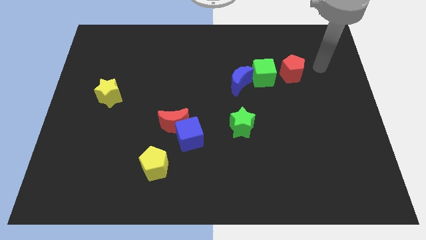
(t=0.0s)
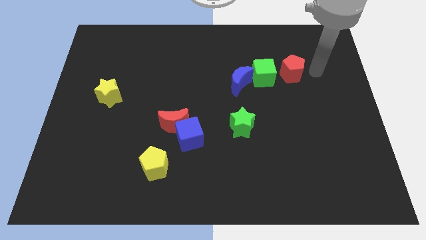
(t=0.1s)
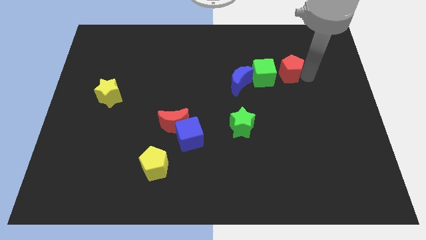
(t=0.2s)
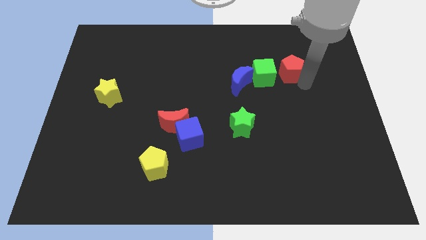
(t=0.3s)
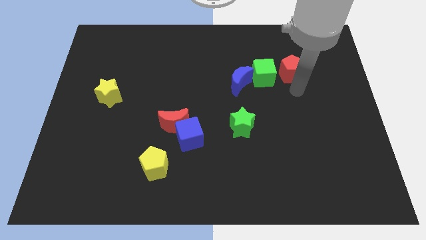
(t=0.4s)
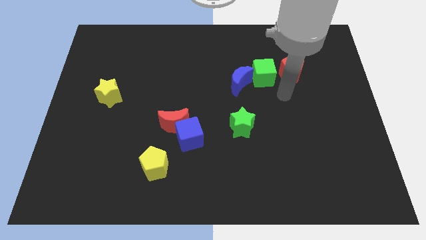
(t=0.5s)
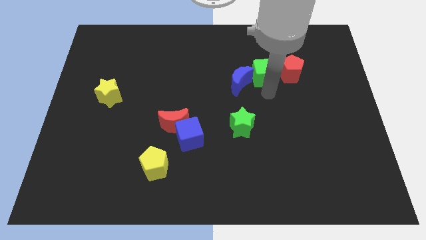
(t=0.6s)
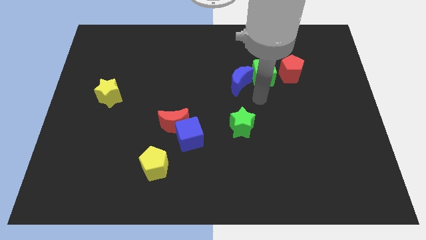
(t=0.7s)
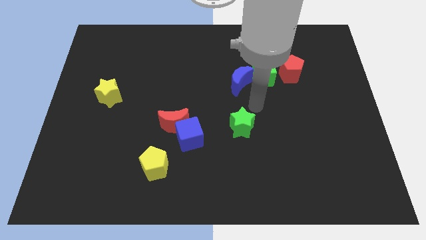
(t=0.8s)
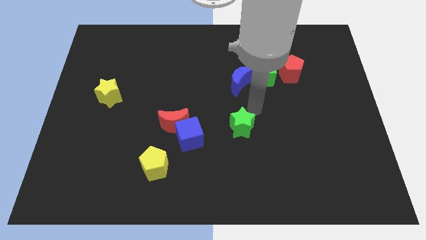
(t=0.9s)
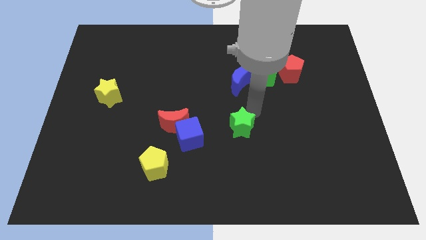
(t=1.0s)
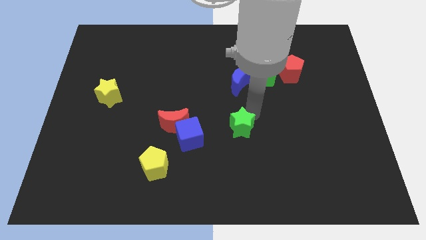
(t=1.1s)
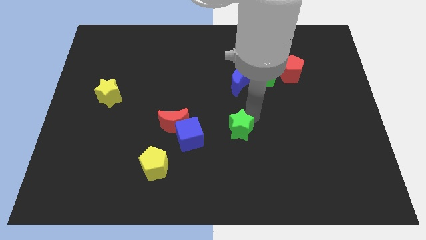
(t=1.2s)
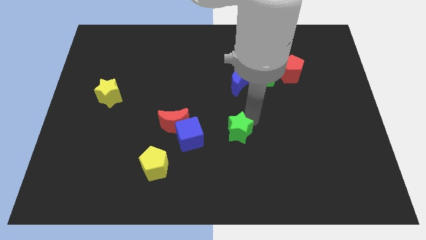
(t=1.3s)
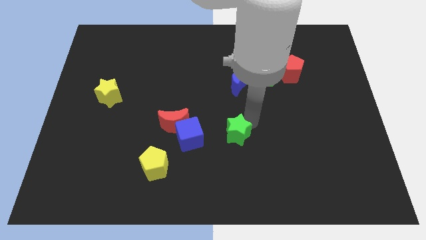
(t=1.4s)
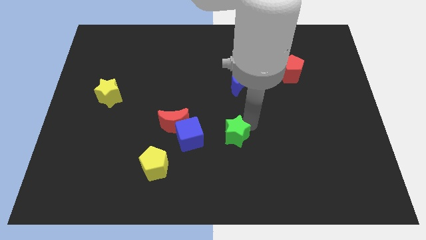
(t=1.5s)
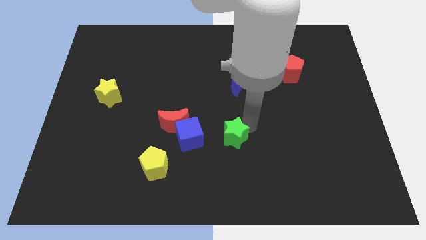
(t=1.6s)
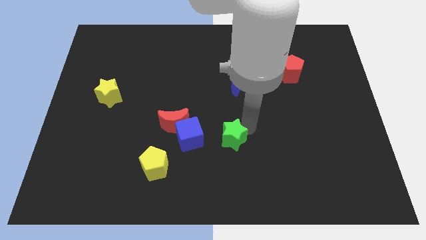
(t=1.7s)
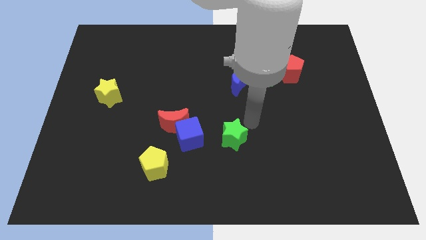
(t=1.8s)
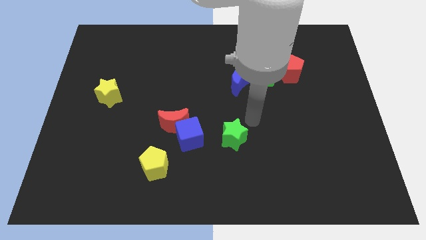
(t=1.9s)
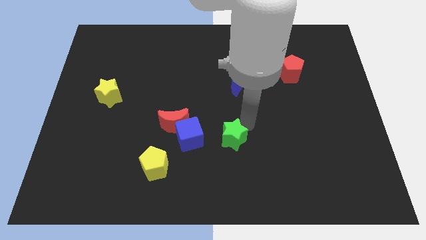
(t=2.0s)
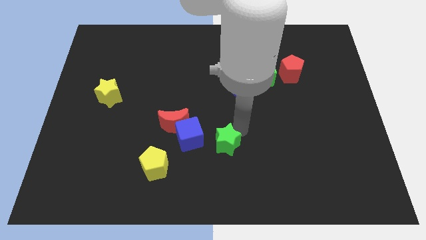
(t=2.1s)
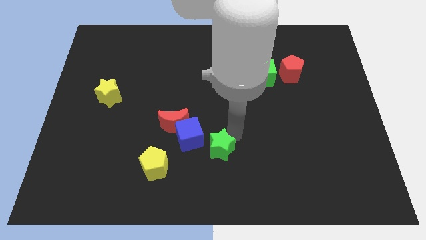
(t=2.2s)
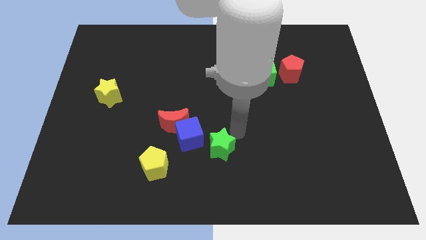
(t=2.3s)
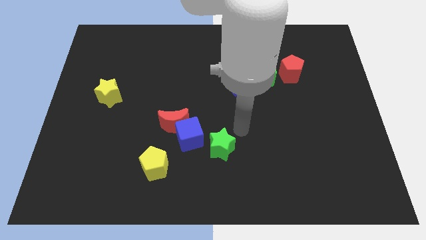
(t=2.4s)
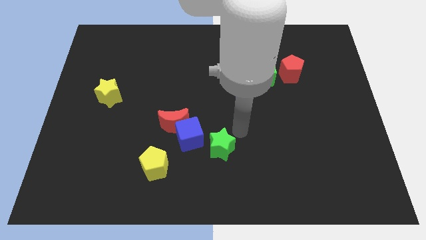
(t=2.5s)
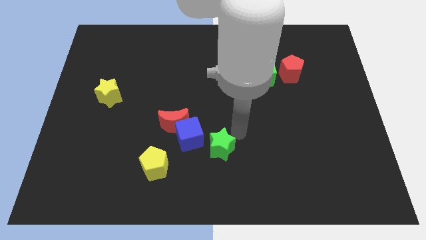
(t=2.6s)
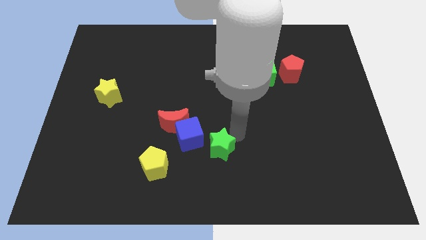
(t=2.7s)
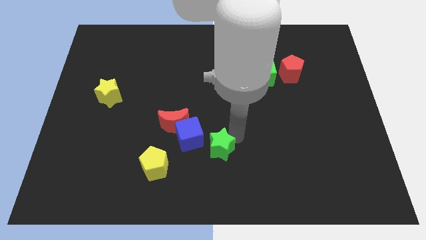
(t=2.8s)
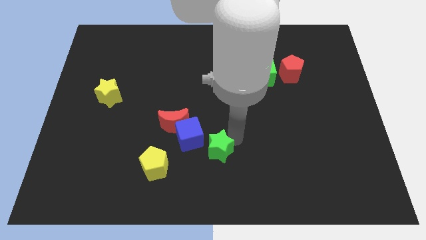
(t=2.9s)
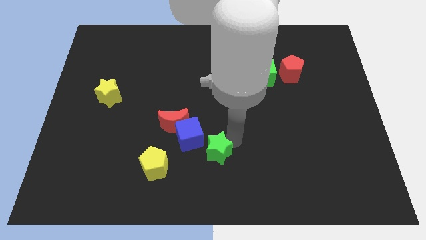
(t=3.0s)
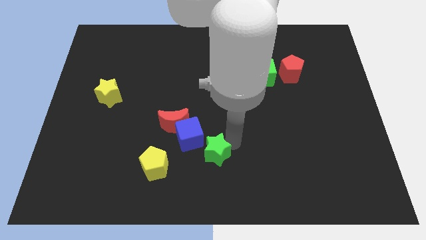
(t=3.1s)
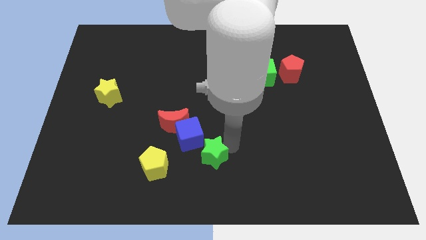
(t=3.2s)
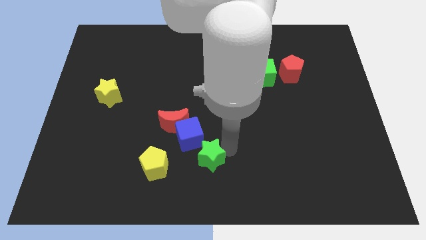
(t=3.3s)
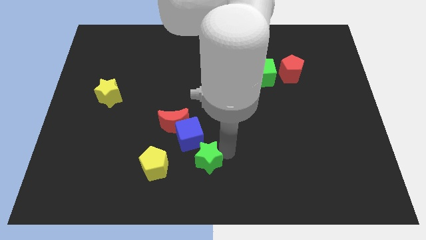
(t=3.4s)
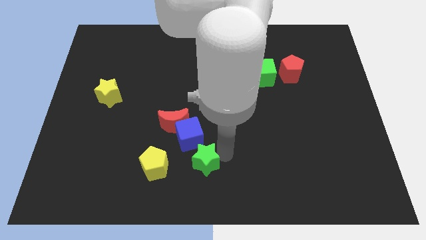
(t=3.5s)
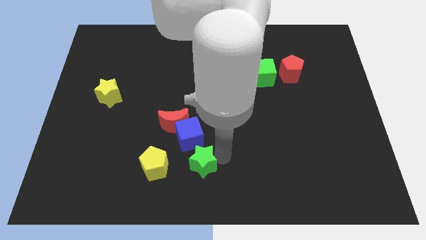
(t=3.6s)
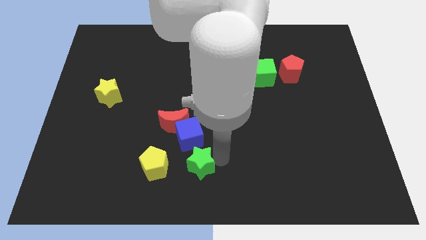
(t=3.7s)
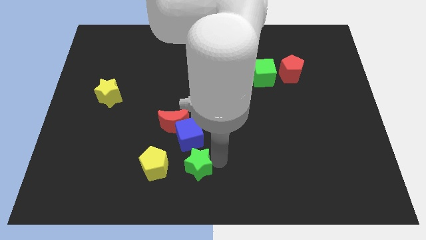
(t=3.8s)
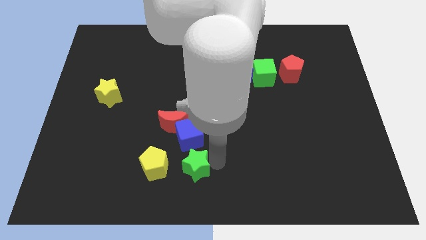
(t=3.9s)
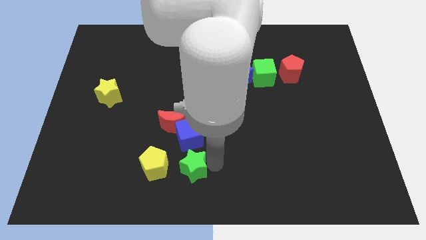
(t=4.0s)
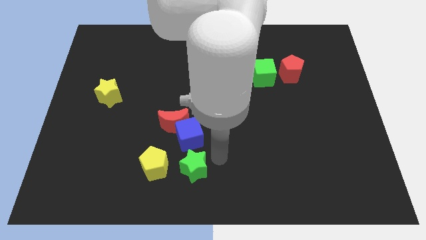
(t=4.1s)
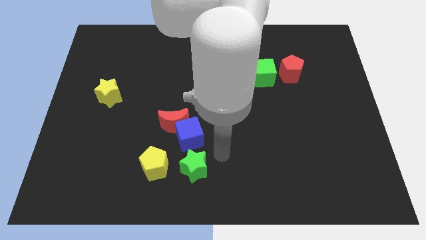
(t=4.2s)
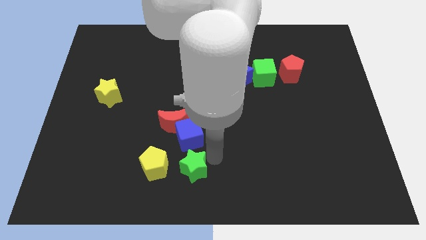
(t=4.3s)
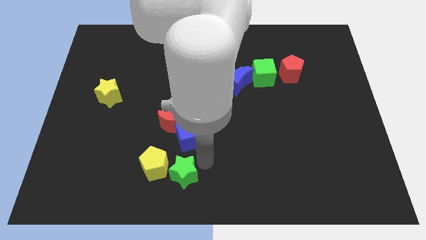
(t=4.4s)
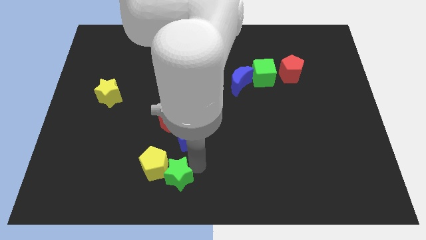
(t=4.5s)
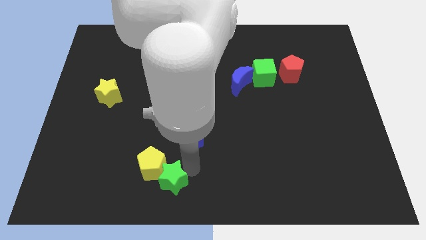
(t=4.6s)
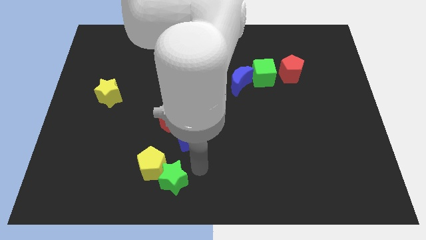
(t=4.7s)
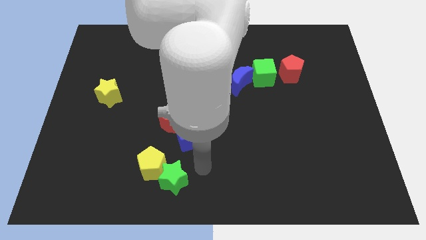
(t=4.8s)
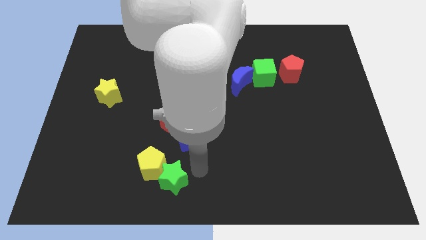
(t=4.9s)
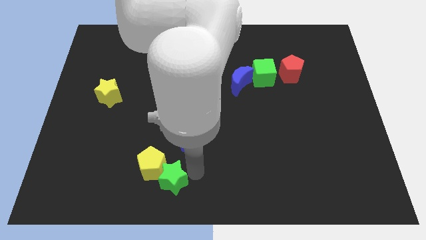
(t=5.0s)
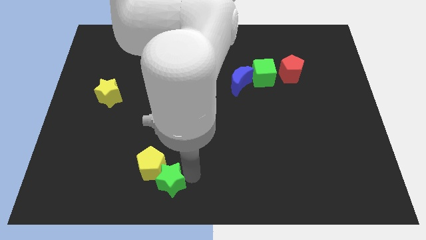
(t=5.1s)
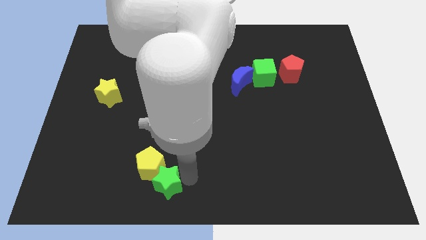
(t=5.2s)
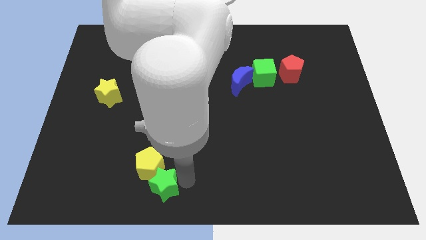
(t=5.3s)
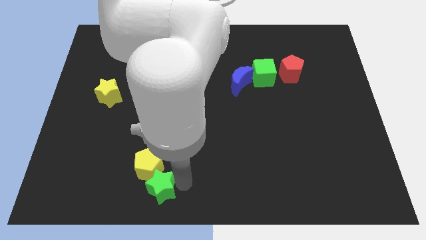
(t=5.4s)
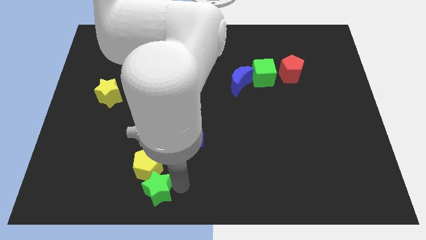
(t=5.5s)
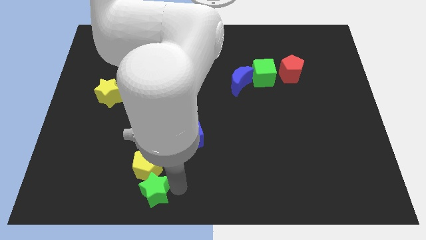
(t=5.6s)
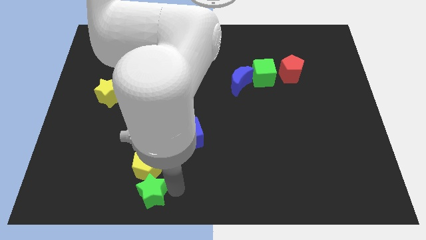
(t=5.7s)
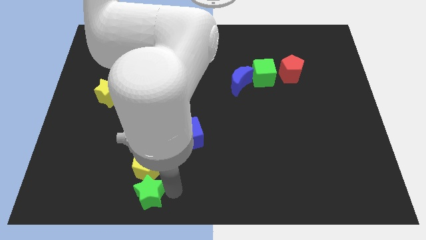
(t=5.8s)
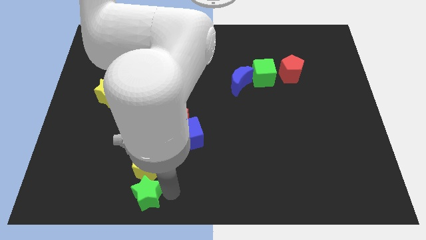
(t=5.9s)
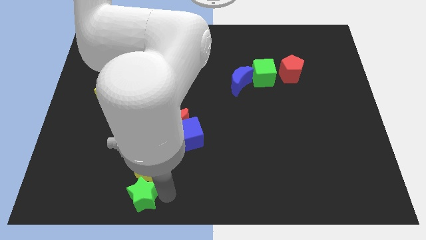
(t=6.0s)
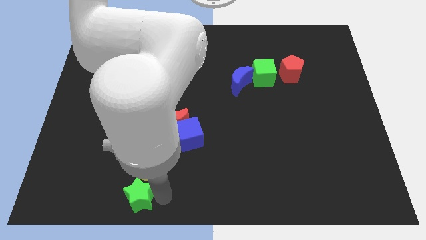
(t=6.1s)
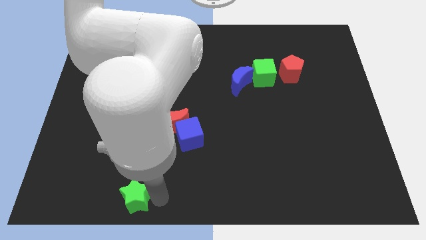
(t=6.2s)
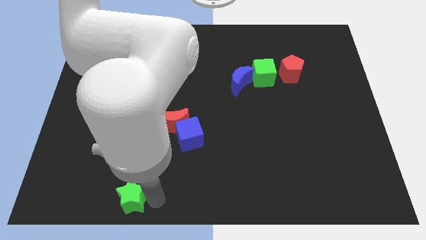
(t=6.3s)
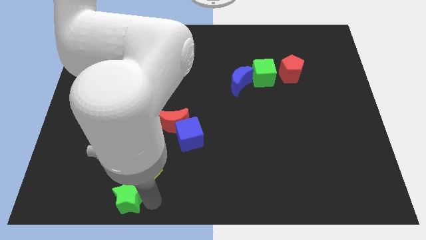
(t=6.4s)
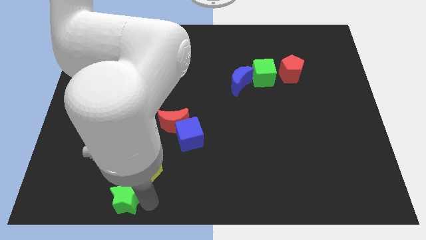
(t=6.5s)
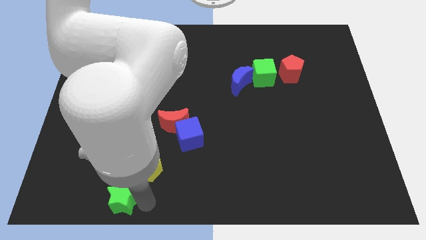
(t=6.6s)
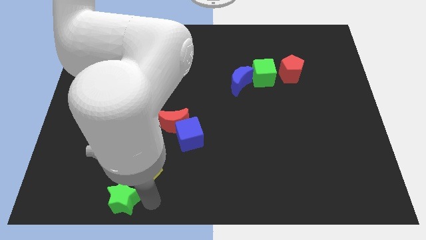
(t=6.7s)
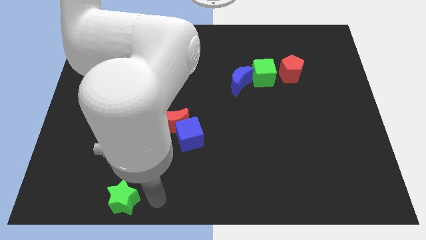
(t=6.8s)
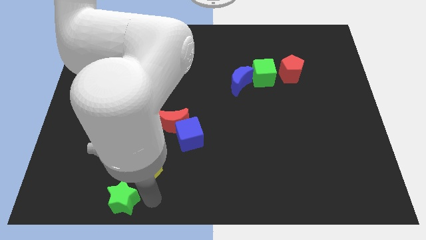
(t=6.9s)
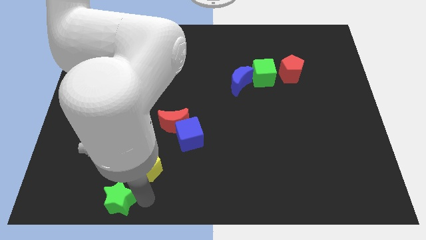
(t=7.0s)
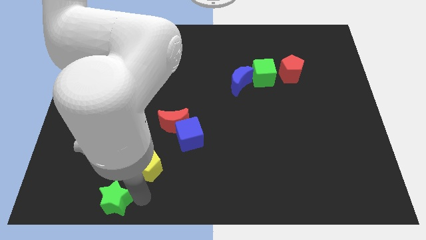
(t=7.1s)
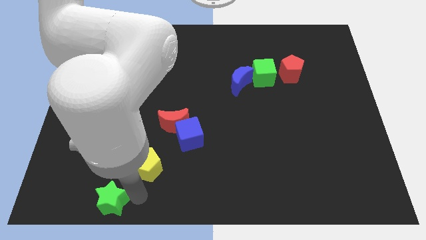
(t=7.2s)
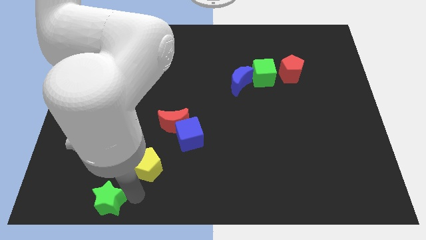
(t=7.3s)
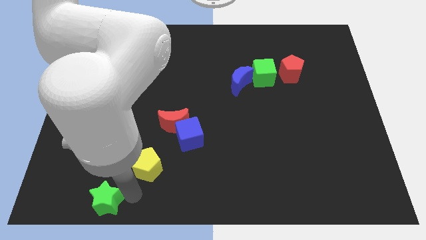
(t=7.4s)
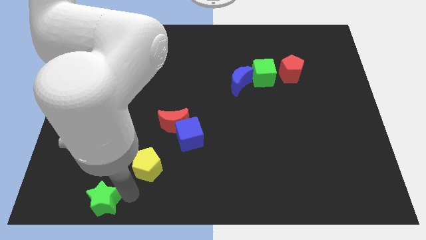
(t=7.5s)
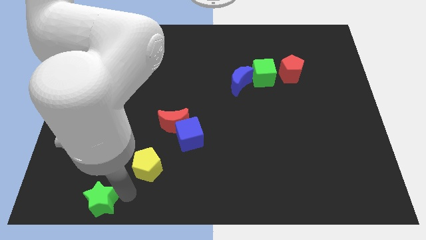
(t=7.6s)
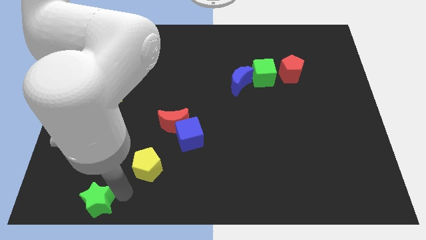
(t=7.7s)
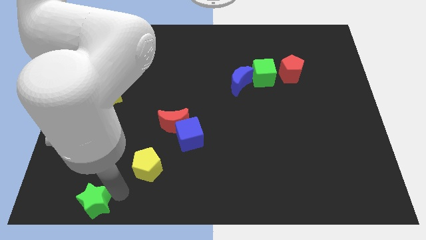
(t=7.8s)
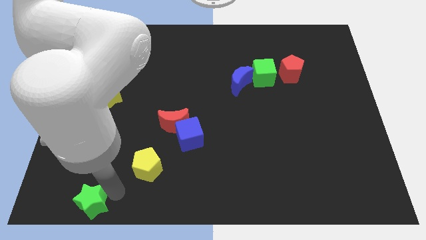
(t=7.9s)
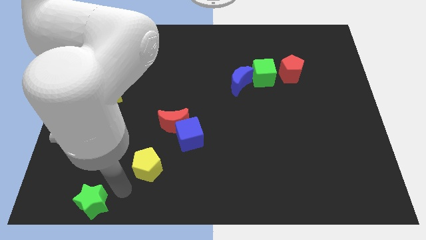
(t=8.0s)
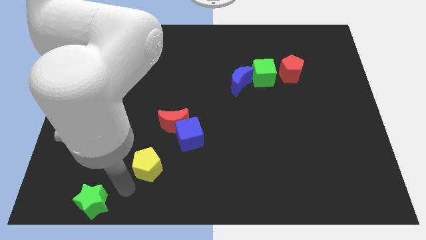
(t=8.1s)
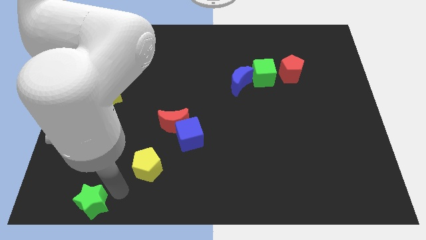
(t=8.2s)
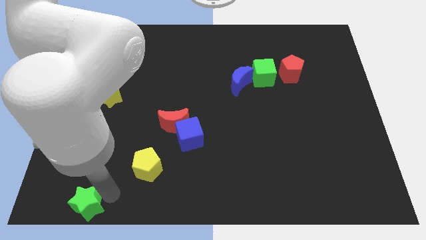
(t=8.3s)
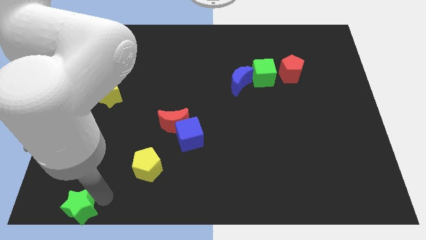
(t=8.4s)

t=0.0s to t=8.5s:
slide the green star to the bottom left of the board
